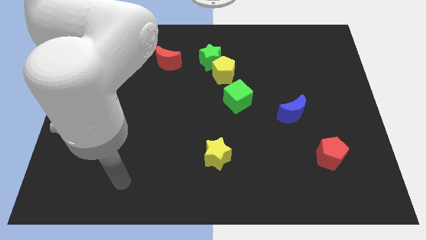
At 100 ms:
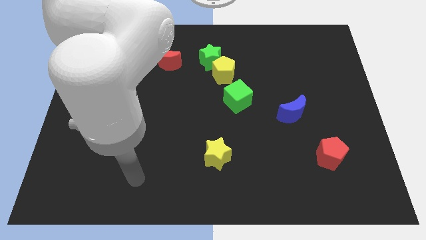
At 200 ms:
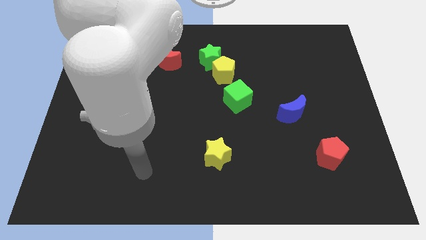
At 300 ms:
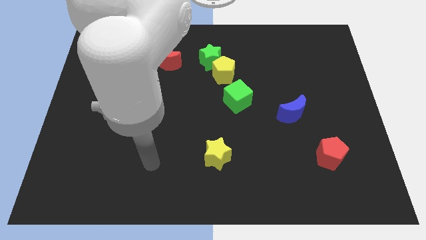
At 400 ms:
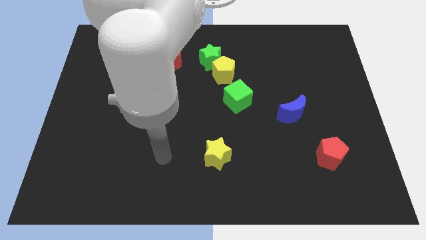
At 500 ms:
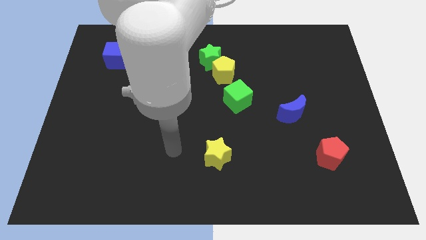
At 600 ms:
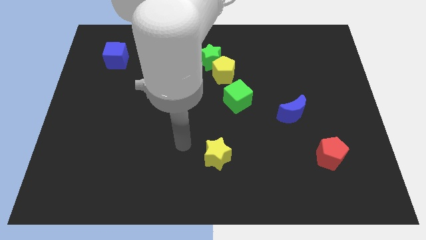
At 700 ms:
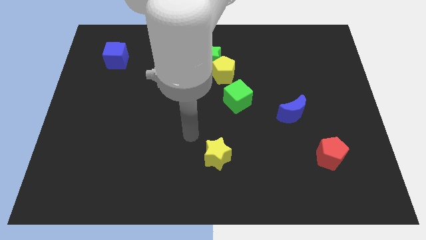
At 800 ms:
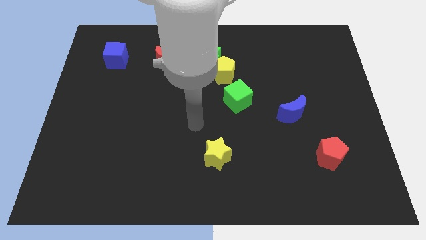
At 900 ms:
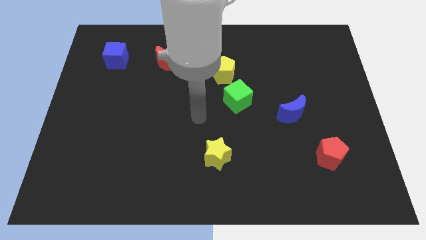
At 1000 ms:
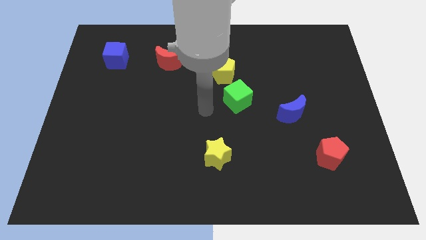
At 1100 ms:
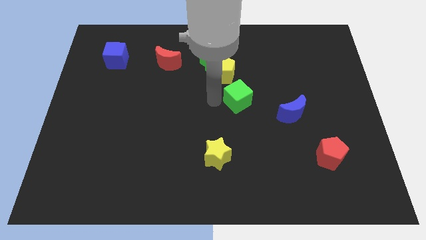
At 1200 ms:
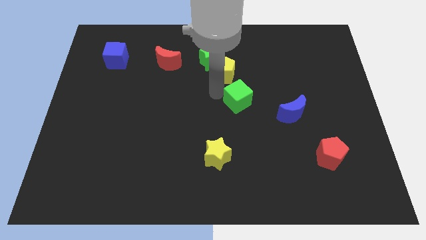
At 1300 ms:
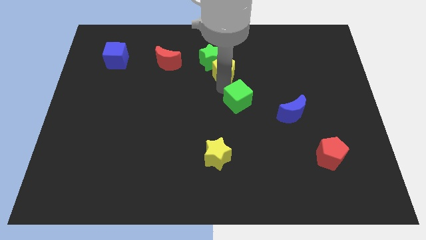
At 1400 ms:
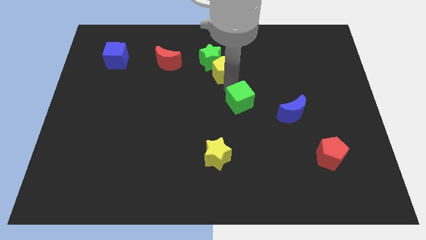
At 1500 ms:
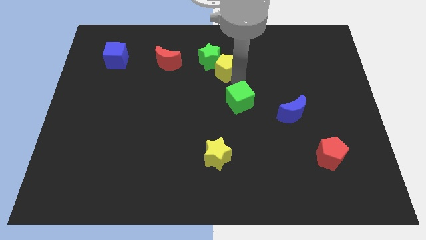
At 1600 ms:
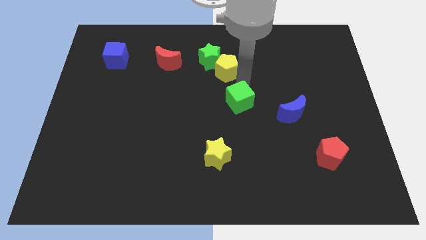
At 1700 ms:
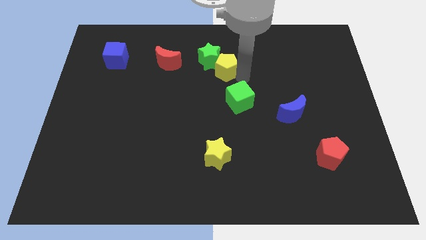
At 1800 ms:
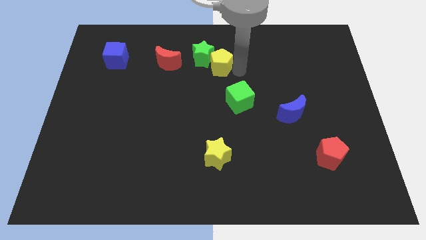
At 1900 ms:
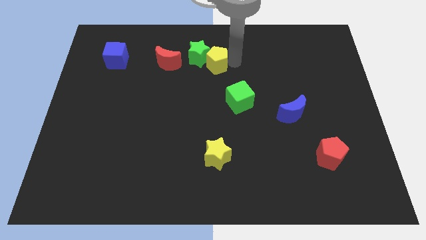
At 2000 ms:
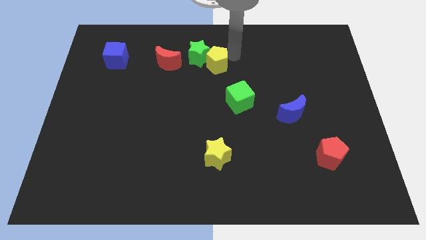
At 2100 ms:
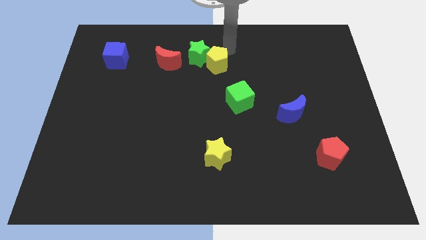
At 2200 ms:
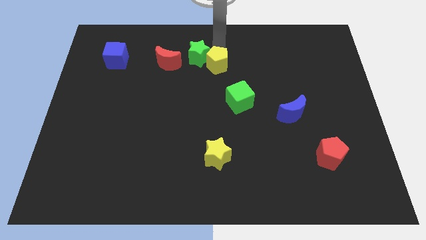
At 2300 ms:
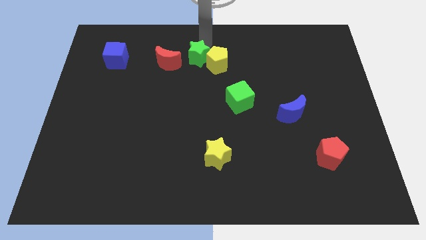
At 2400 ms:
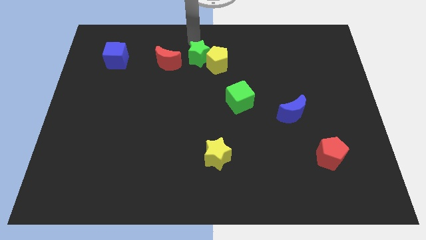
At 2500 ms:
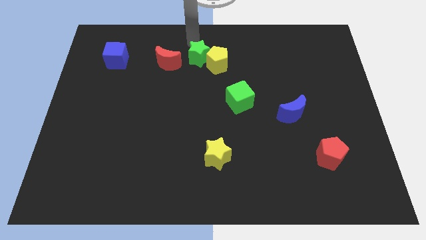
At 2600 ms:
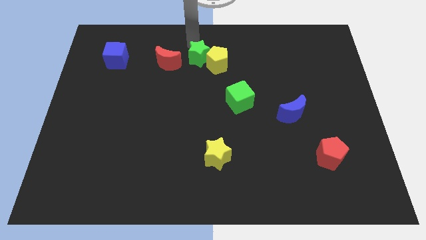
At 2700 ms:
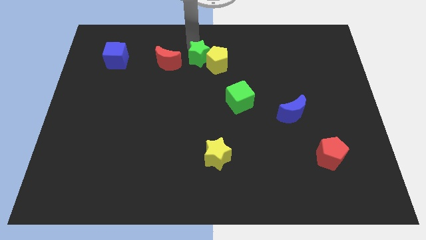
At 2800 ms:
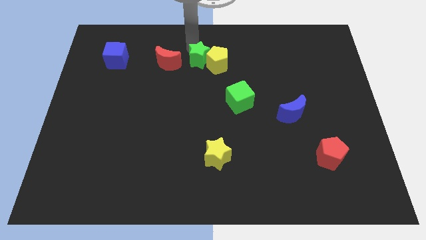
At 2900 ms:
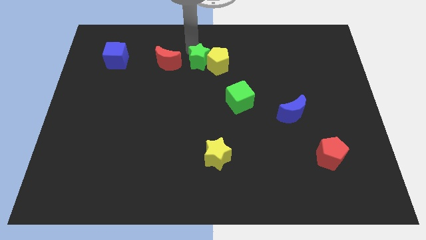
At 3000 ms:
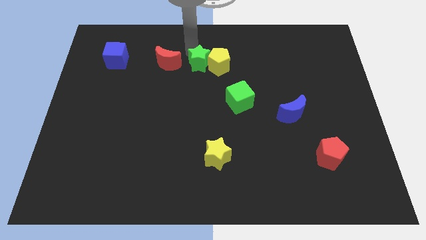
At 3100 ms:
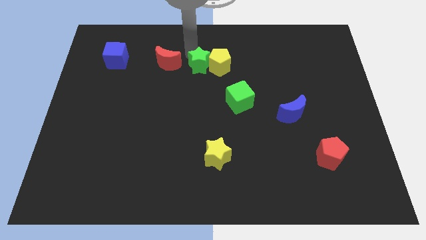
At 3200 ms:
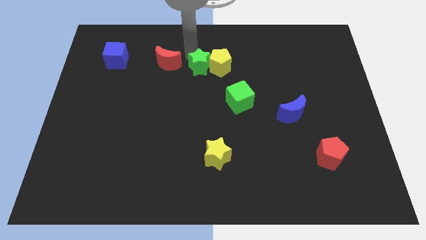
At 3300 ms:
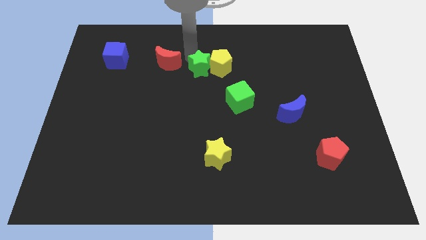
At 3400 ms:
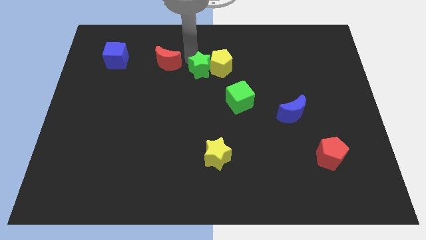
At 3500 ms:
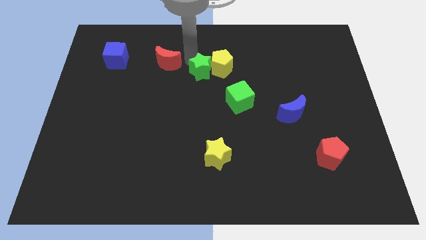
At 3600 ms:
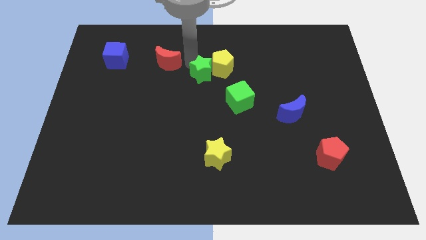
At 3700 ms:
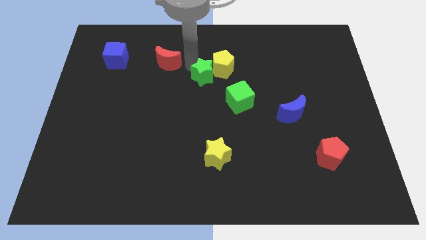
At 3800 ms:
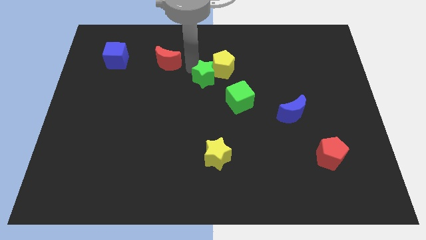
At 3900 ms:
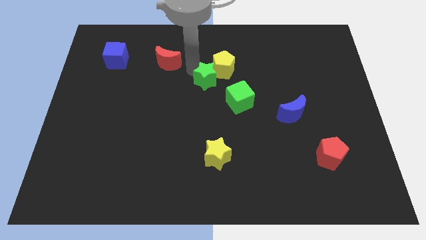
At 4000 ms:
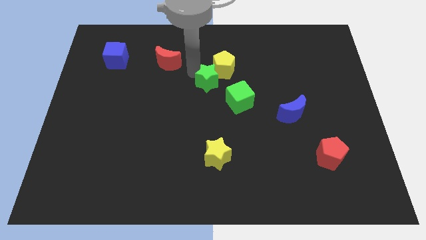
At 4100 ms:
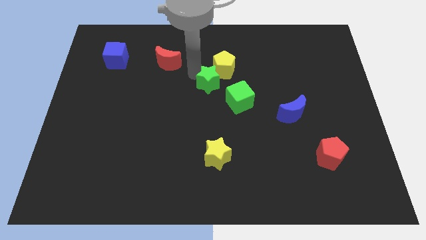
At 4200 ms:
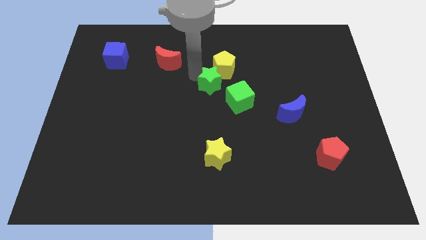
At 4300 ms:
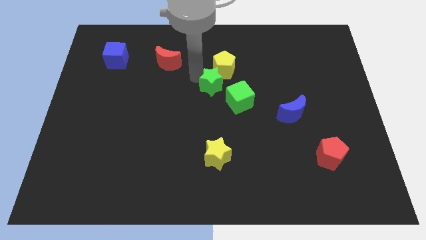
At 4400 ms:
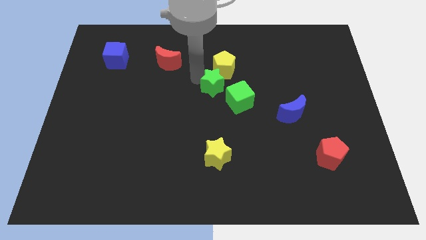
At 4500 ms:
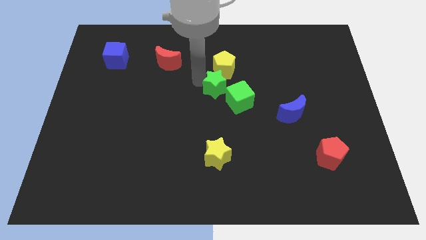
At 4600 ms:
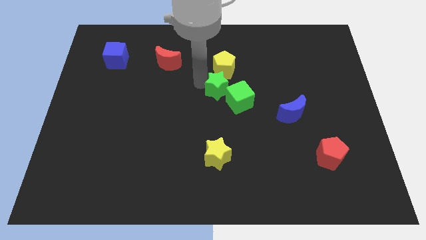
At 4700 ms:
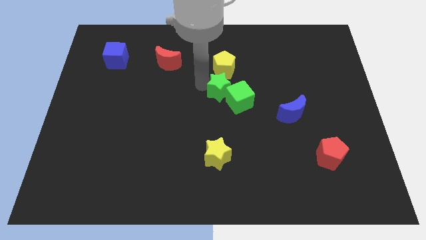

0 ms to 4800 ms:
put the green star to the green cube

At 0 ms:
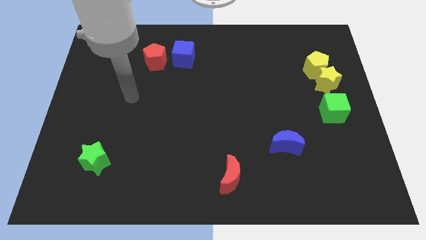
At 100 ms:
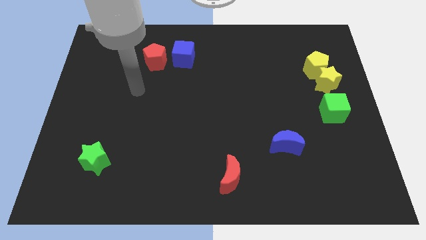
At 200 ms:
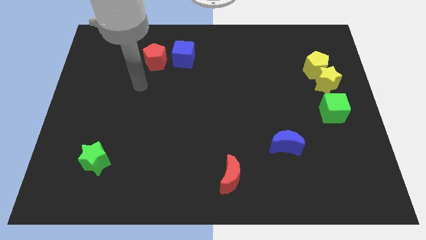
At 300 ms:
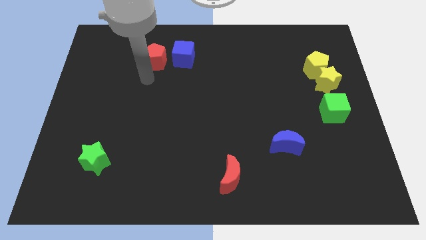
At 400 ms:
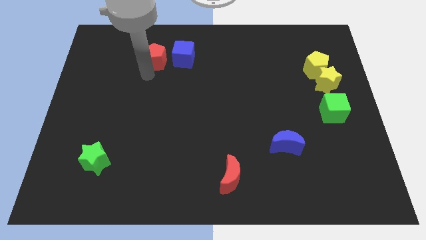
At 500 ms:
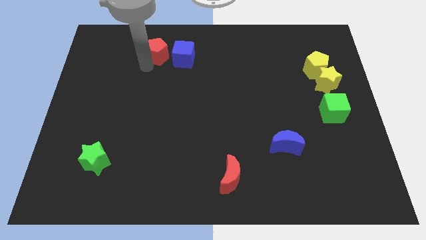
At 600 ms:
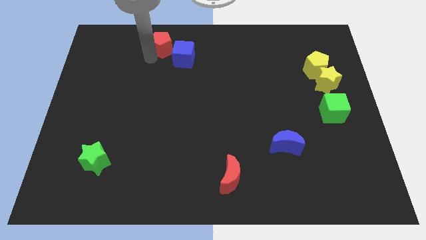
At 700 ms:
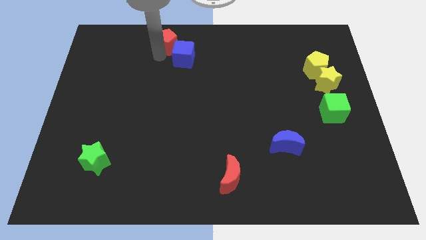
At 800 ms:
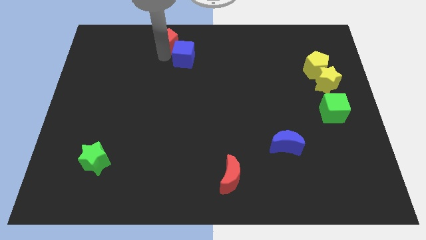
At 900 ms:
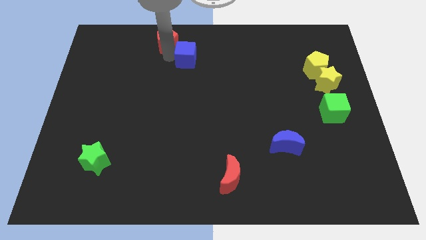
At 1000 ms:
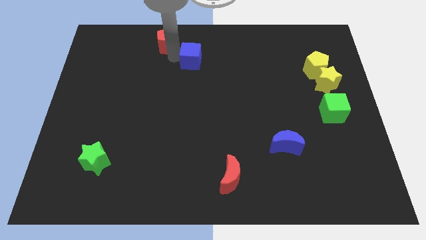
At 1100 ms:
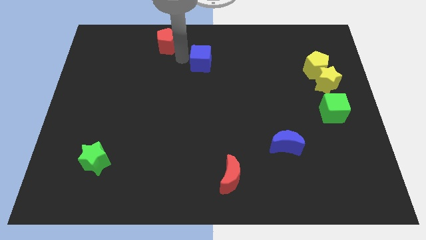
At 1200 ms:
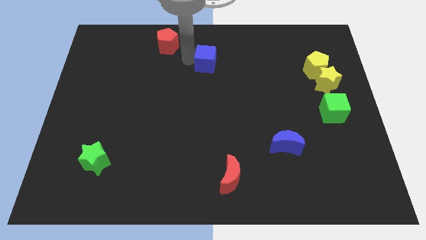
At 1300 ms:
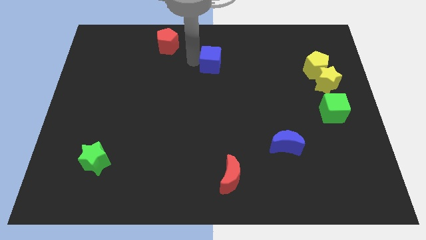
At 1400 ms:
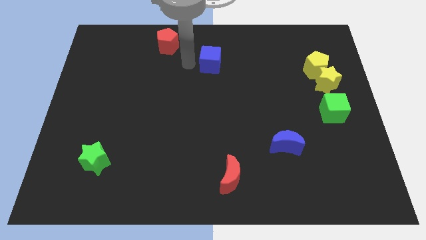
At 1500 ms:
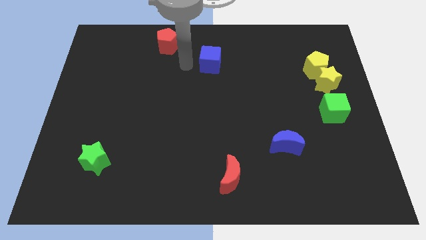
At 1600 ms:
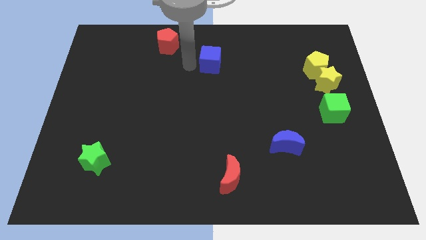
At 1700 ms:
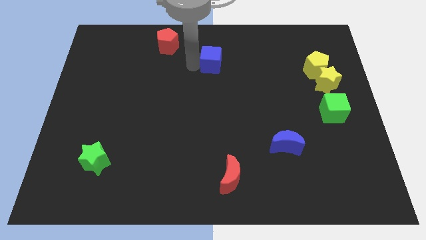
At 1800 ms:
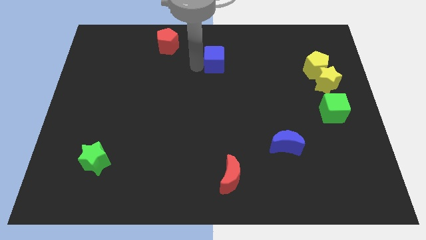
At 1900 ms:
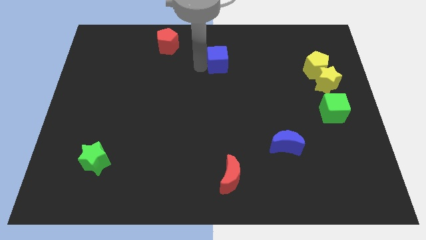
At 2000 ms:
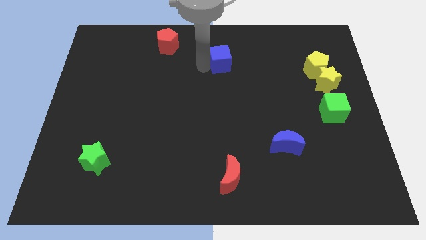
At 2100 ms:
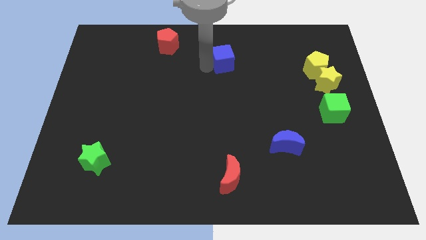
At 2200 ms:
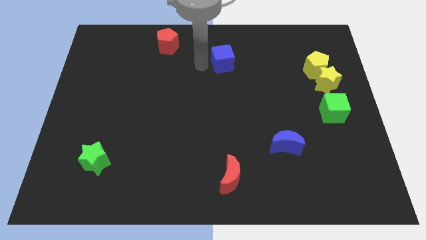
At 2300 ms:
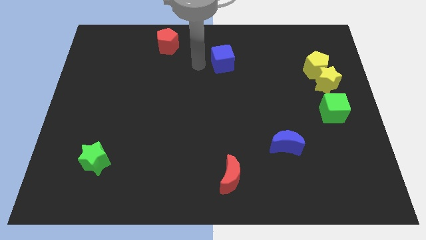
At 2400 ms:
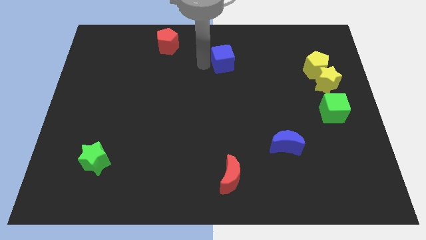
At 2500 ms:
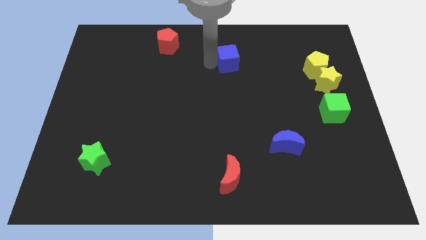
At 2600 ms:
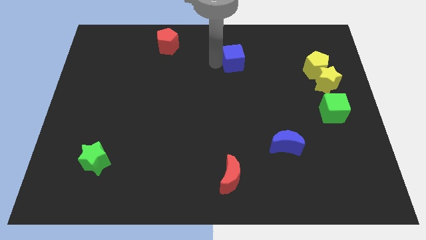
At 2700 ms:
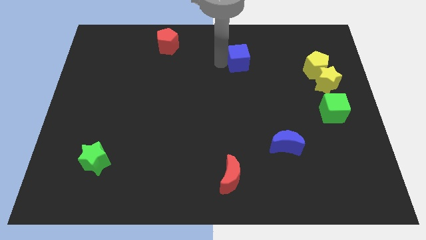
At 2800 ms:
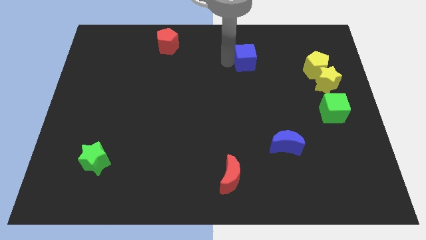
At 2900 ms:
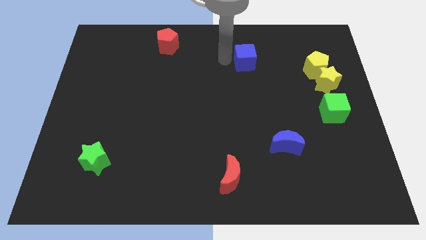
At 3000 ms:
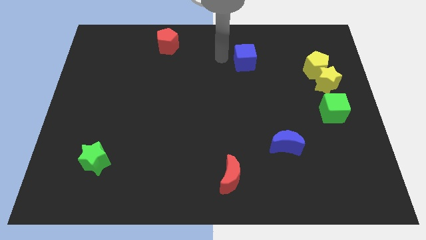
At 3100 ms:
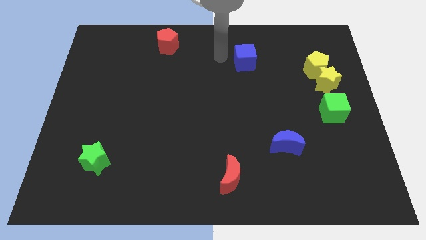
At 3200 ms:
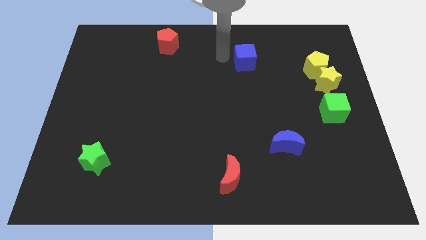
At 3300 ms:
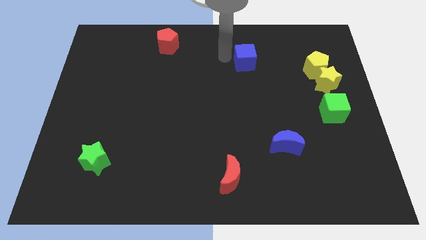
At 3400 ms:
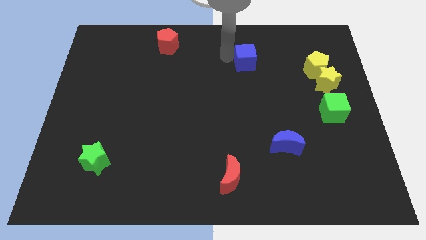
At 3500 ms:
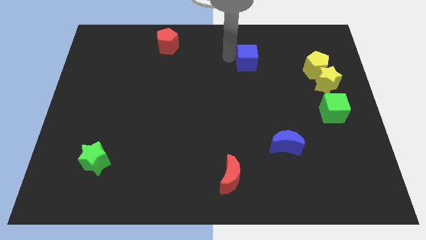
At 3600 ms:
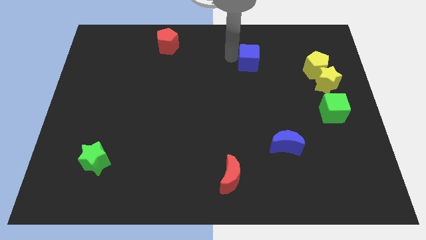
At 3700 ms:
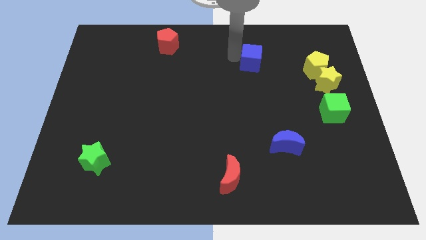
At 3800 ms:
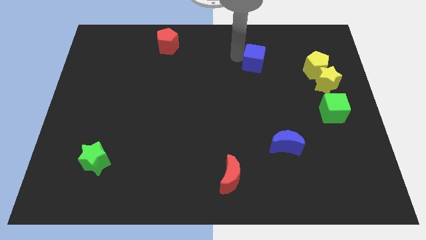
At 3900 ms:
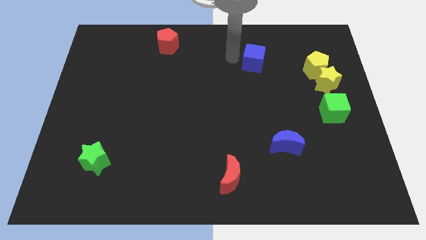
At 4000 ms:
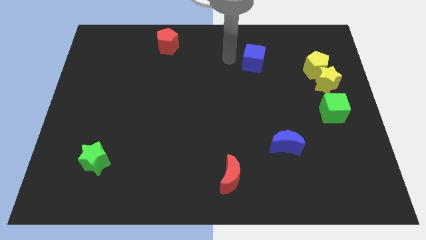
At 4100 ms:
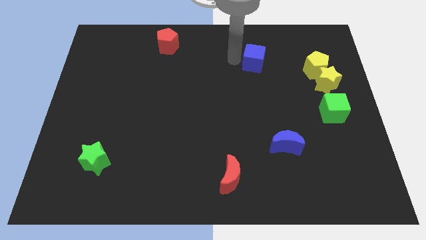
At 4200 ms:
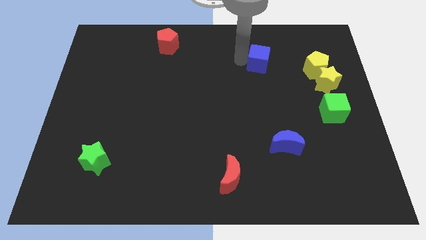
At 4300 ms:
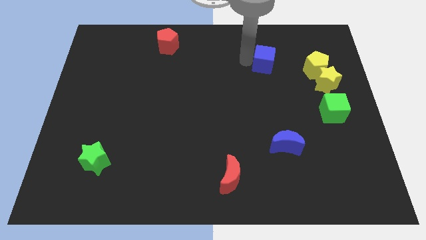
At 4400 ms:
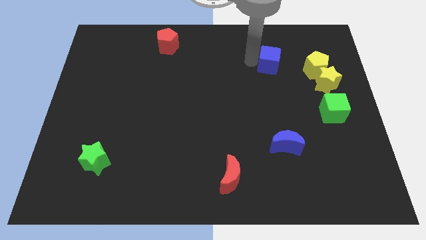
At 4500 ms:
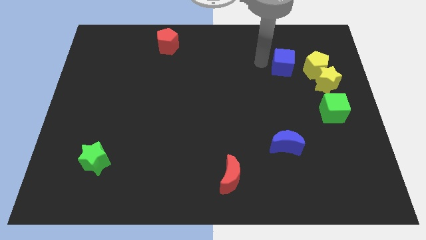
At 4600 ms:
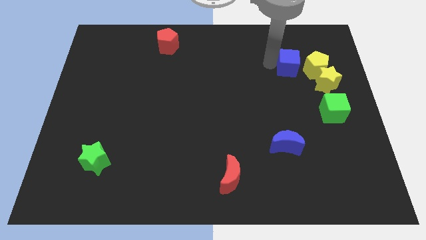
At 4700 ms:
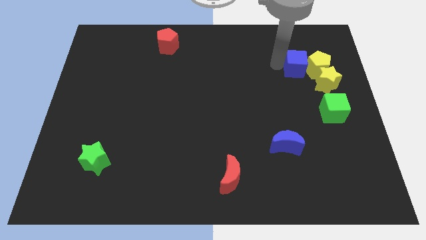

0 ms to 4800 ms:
put the blue cube to the yellow pentagon
